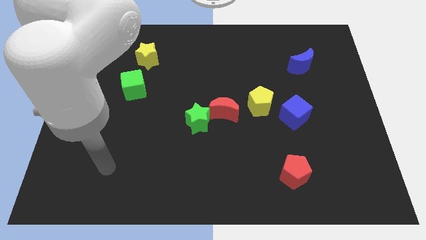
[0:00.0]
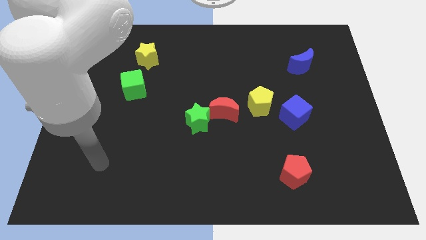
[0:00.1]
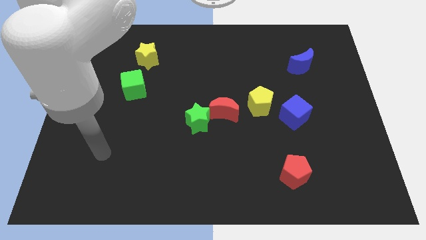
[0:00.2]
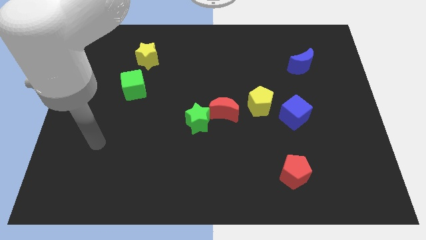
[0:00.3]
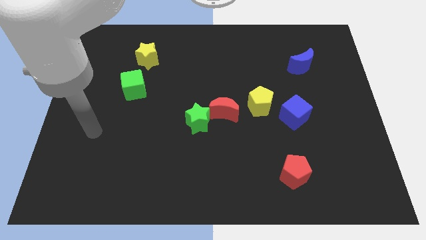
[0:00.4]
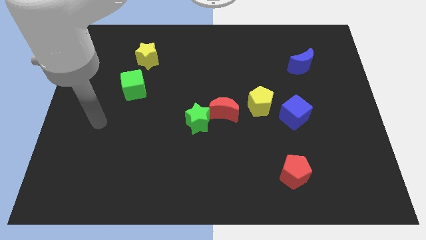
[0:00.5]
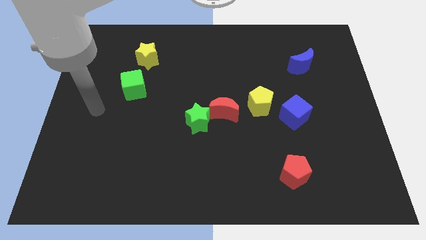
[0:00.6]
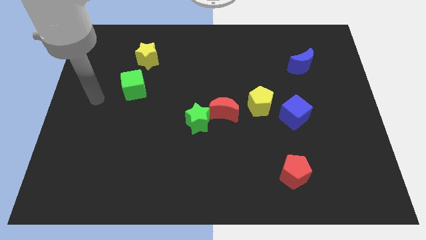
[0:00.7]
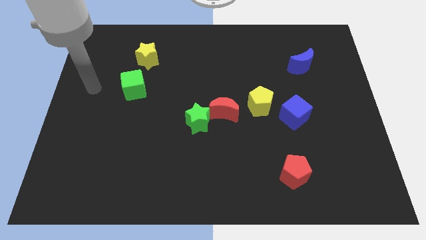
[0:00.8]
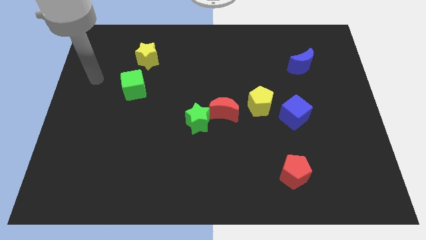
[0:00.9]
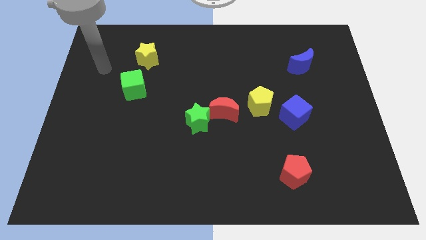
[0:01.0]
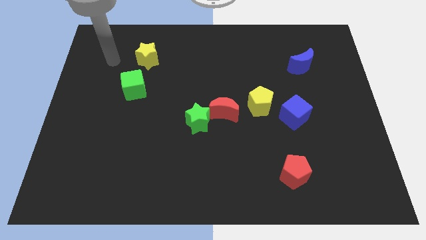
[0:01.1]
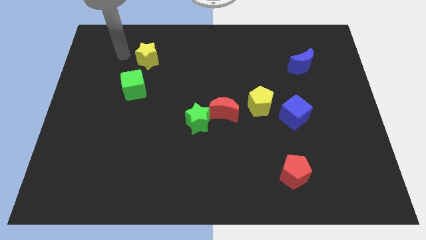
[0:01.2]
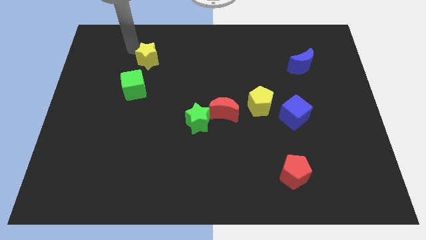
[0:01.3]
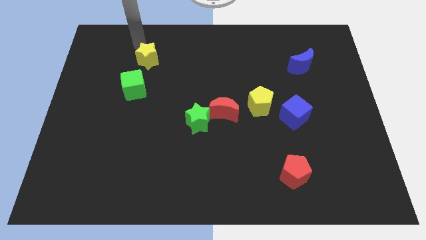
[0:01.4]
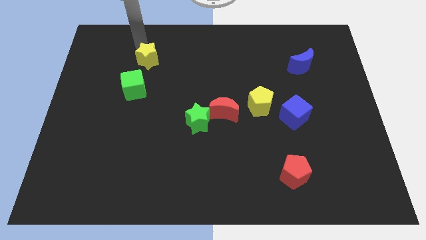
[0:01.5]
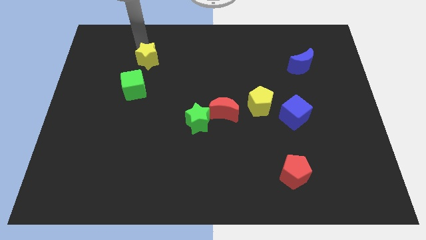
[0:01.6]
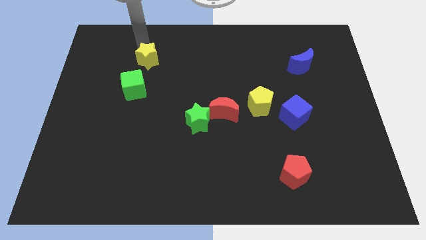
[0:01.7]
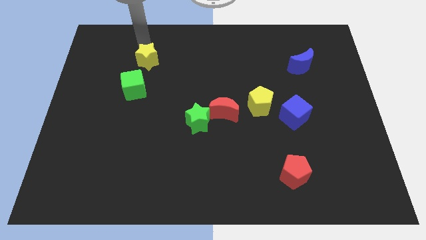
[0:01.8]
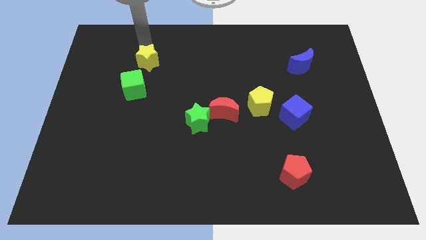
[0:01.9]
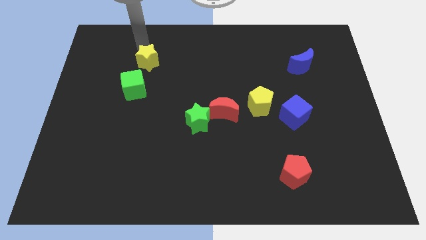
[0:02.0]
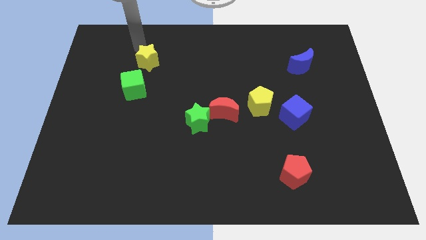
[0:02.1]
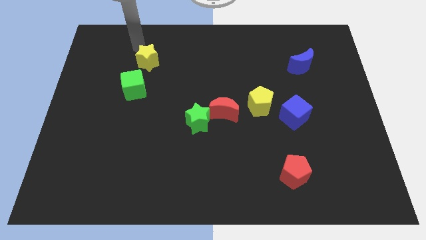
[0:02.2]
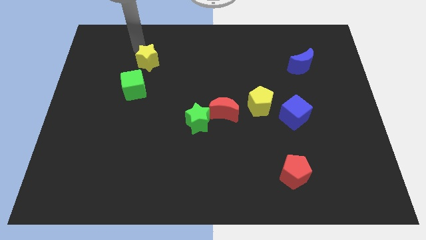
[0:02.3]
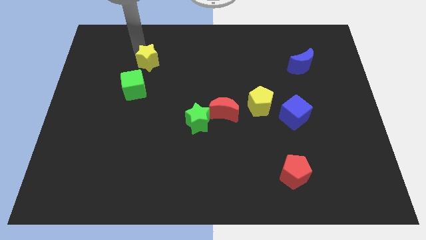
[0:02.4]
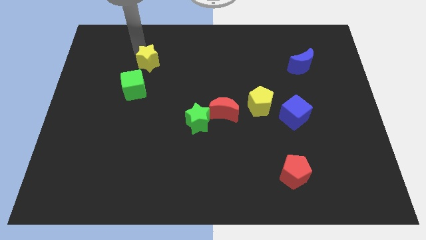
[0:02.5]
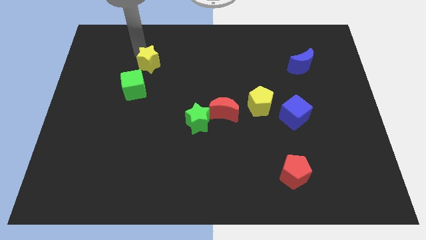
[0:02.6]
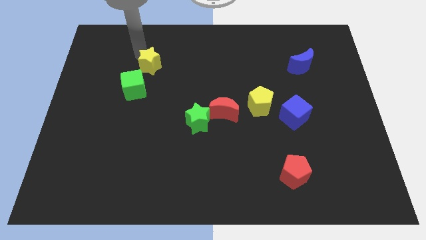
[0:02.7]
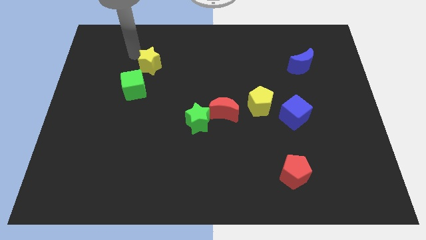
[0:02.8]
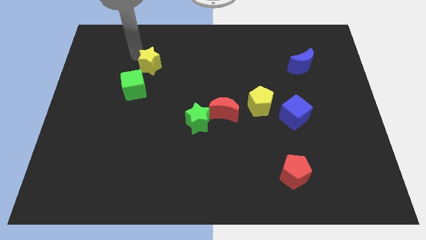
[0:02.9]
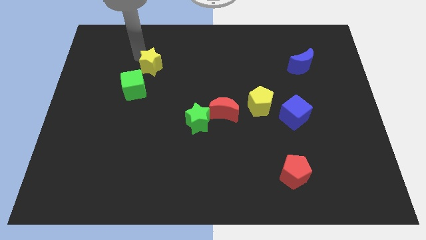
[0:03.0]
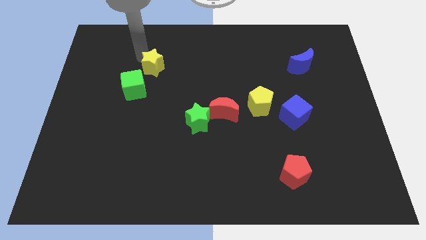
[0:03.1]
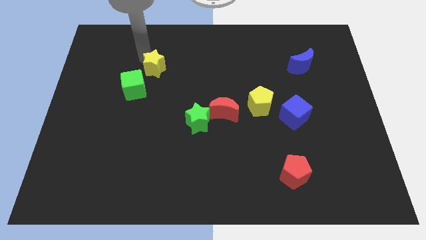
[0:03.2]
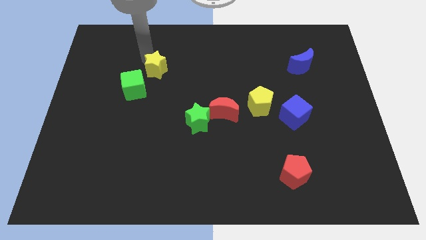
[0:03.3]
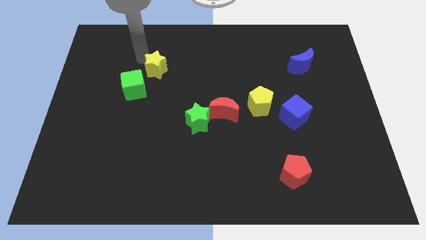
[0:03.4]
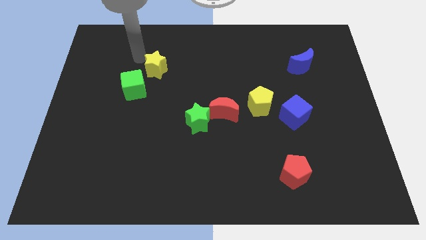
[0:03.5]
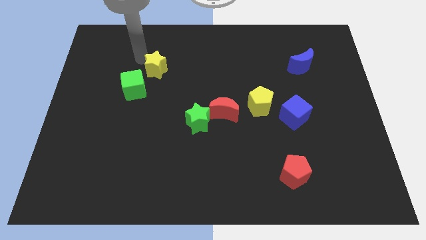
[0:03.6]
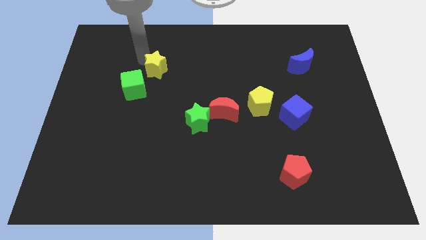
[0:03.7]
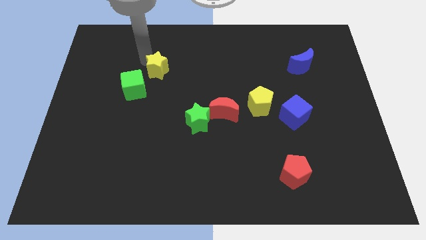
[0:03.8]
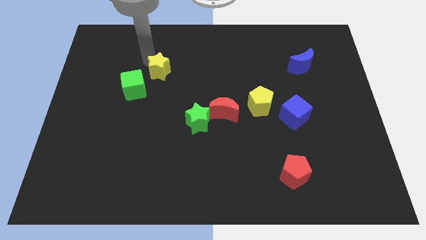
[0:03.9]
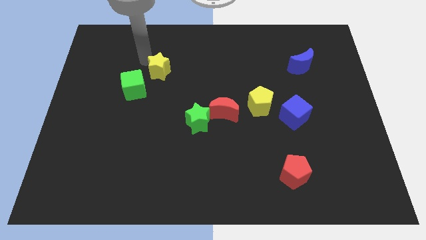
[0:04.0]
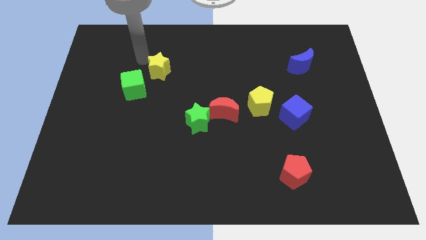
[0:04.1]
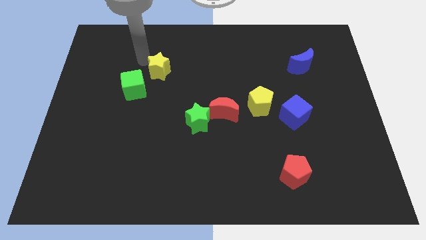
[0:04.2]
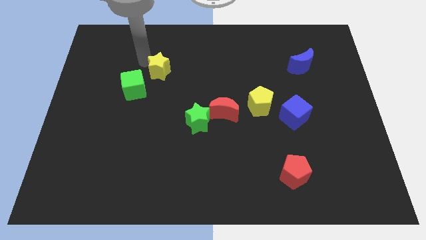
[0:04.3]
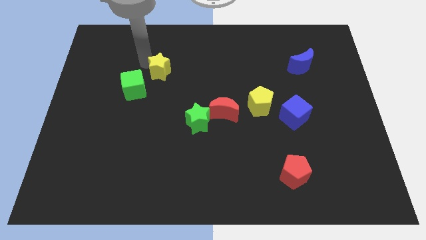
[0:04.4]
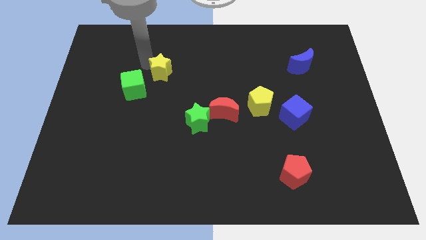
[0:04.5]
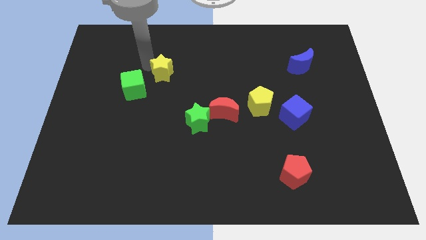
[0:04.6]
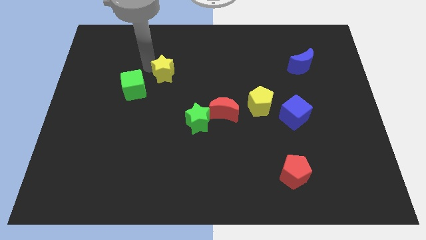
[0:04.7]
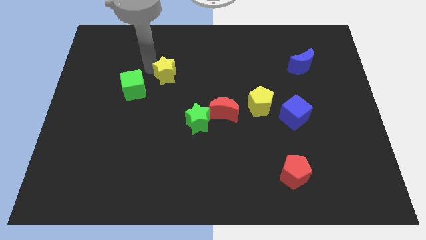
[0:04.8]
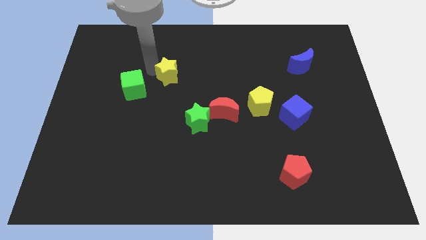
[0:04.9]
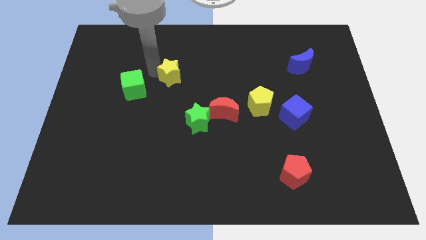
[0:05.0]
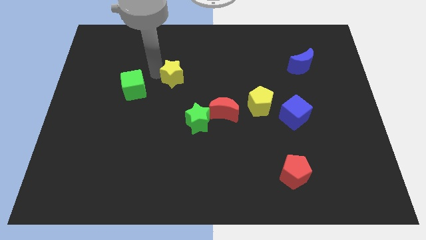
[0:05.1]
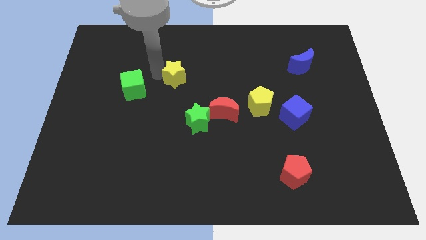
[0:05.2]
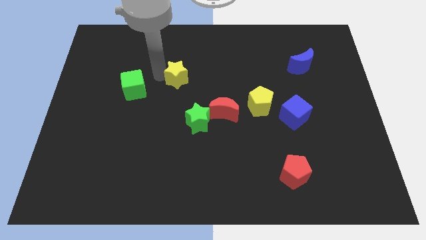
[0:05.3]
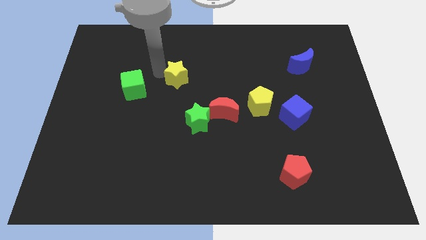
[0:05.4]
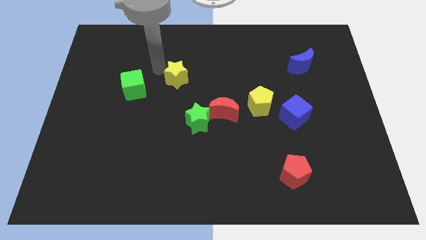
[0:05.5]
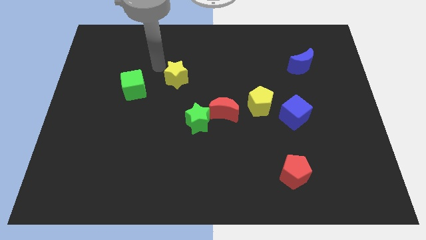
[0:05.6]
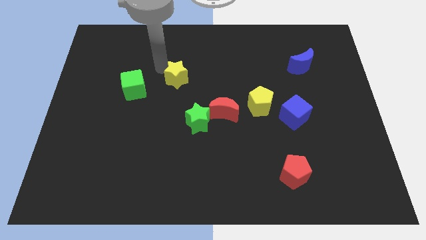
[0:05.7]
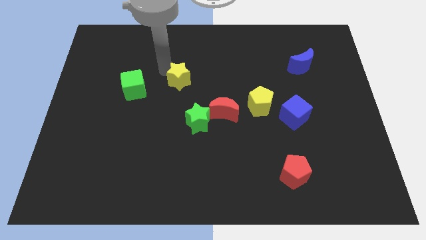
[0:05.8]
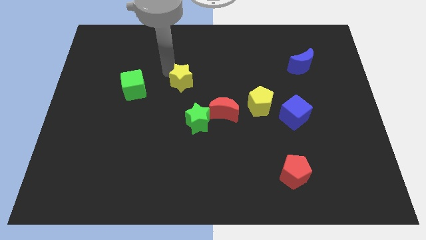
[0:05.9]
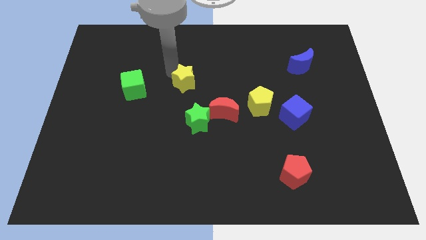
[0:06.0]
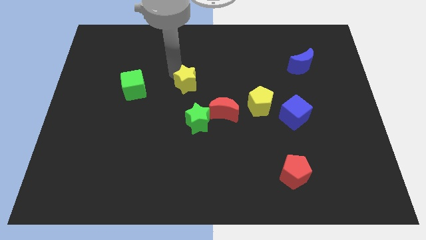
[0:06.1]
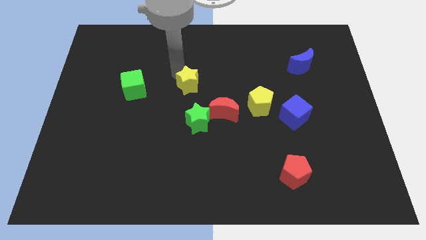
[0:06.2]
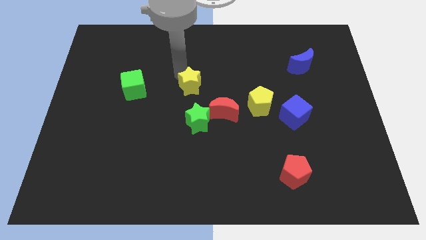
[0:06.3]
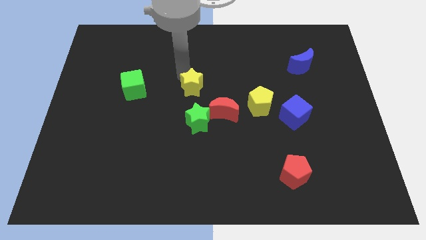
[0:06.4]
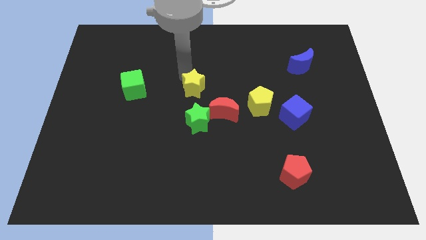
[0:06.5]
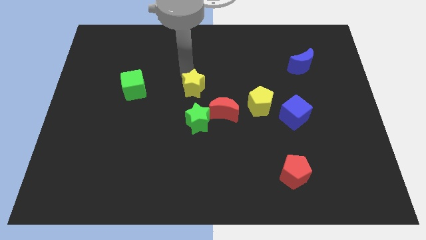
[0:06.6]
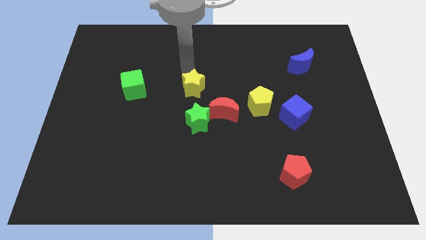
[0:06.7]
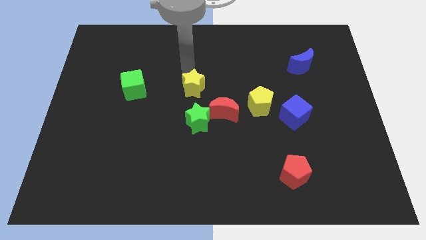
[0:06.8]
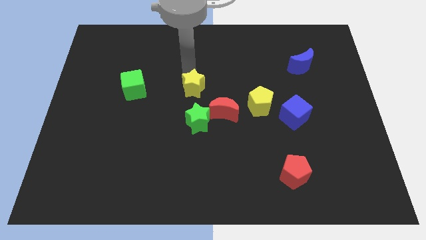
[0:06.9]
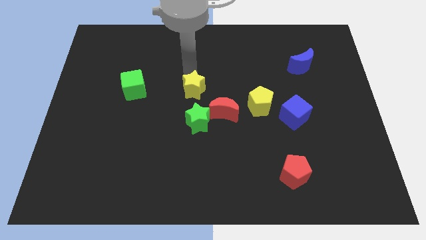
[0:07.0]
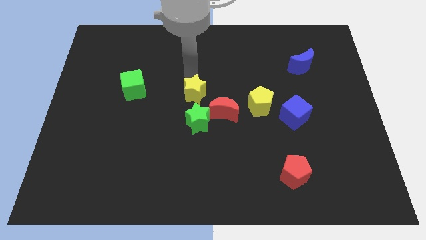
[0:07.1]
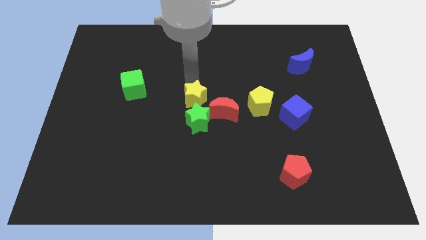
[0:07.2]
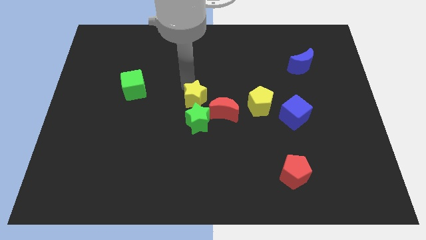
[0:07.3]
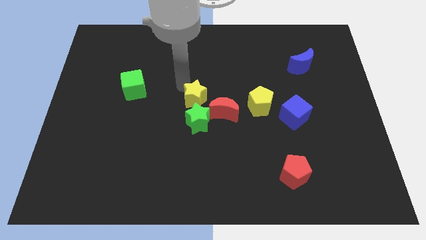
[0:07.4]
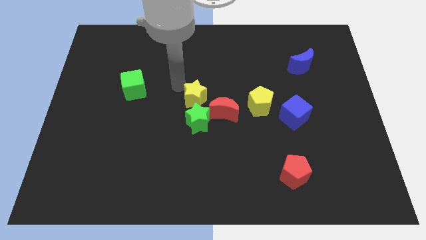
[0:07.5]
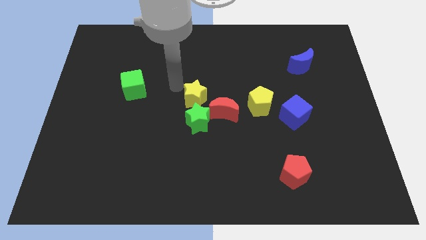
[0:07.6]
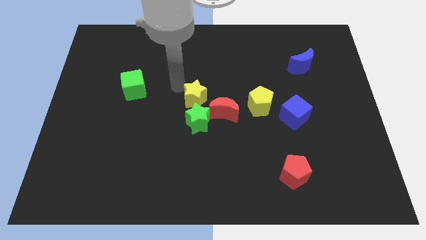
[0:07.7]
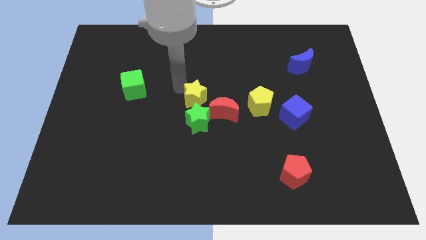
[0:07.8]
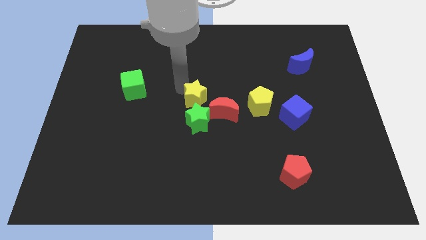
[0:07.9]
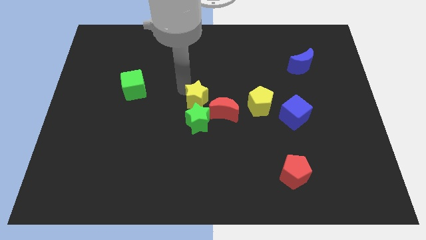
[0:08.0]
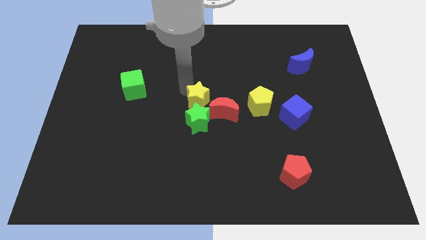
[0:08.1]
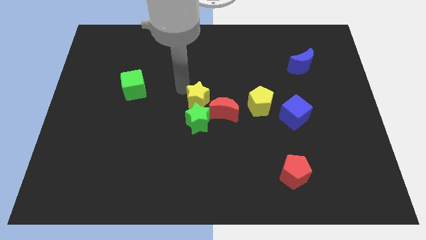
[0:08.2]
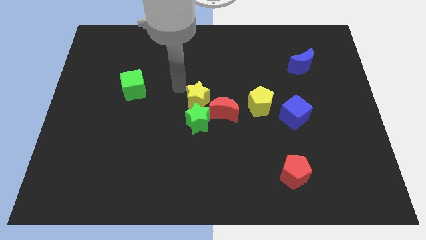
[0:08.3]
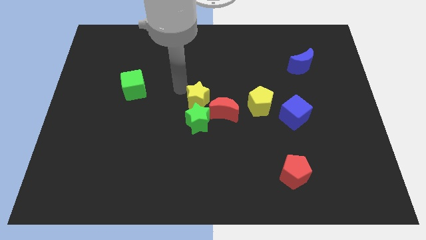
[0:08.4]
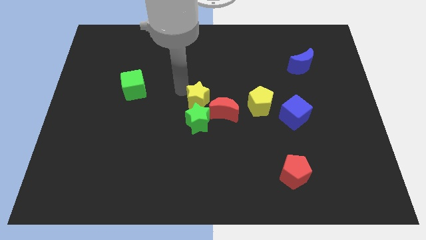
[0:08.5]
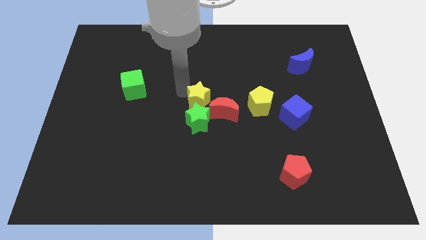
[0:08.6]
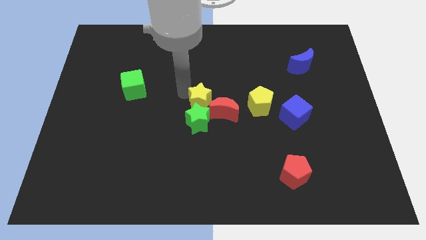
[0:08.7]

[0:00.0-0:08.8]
put the yellow star to the red moon
